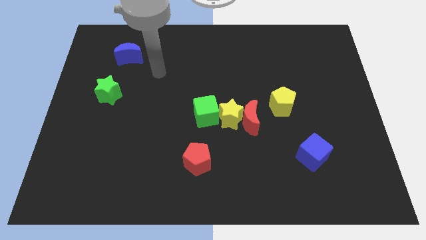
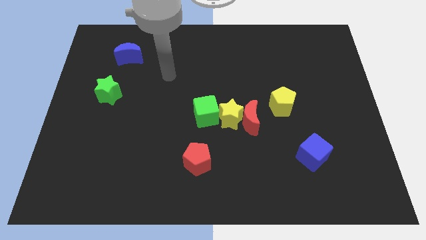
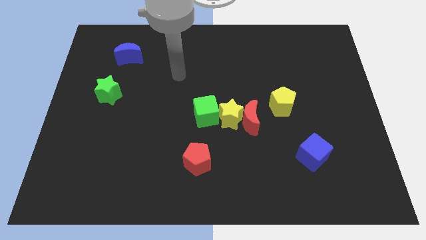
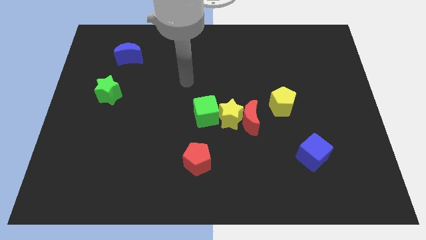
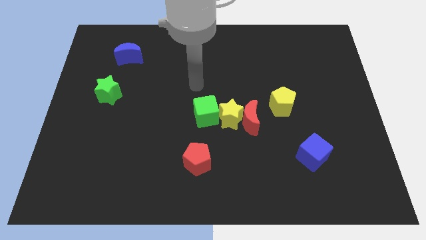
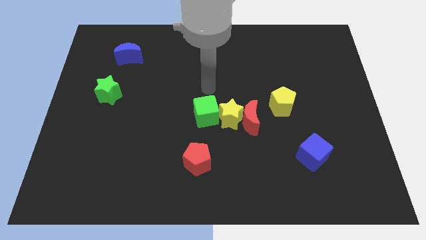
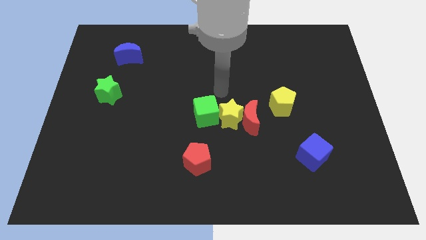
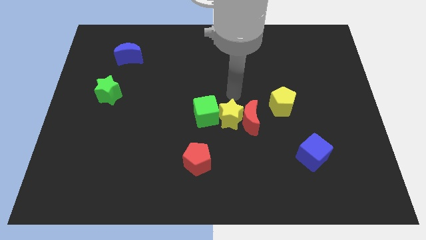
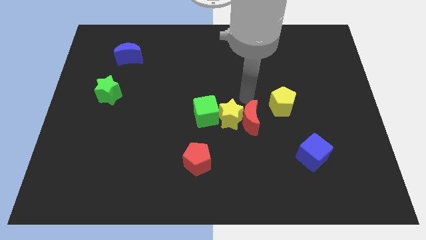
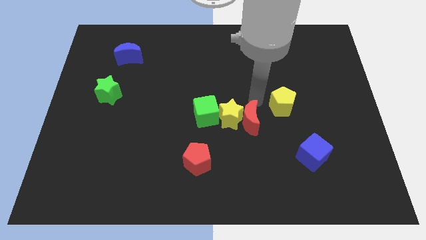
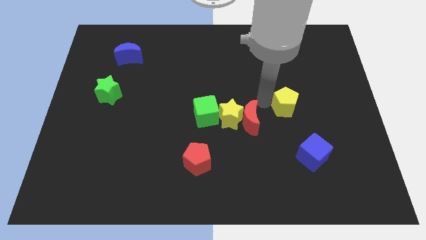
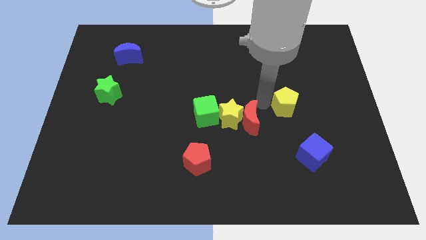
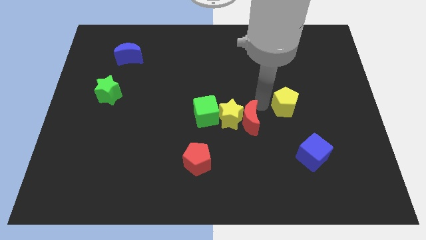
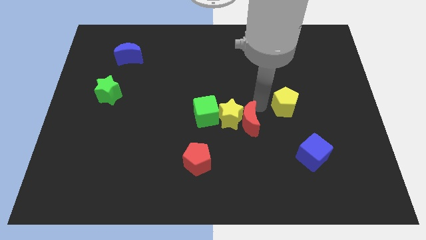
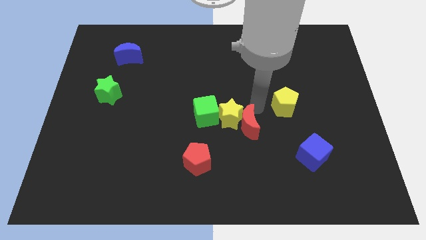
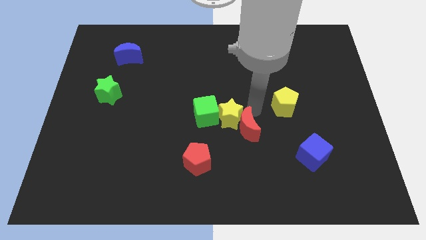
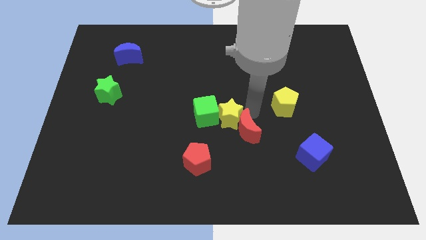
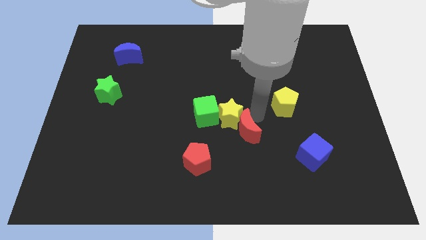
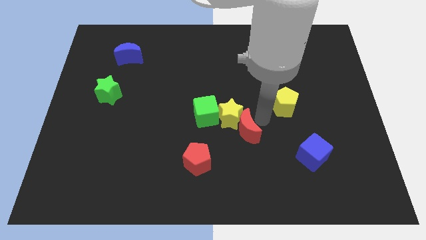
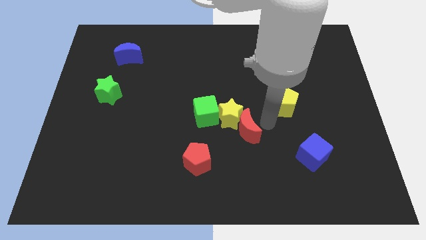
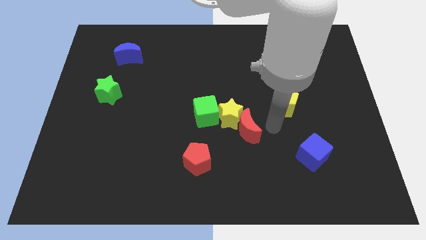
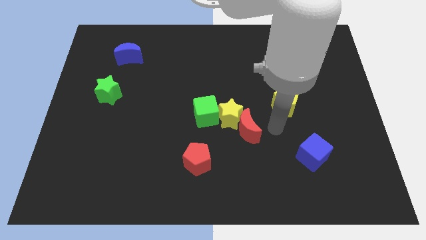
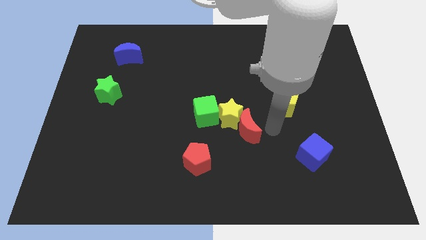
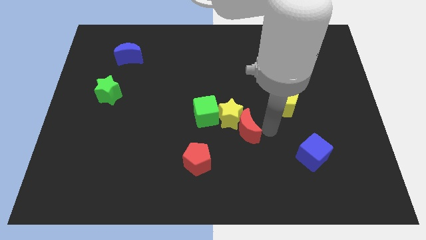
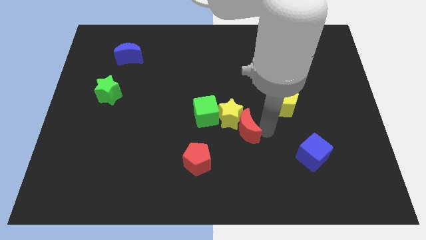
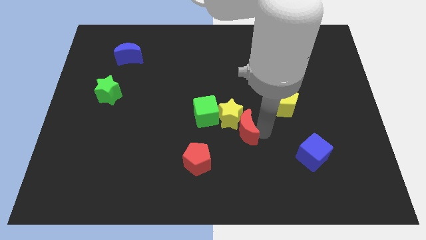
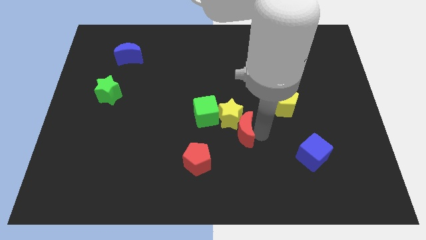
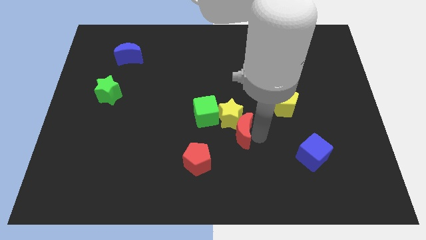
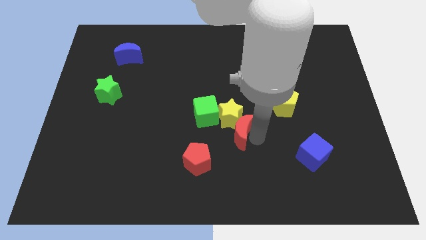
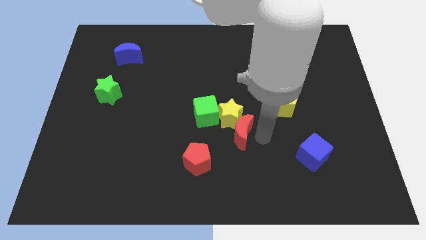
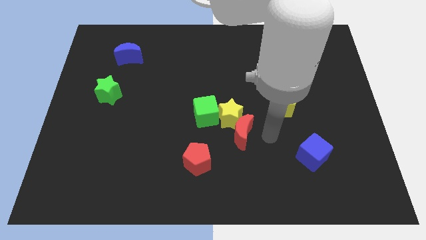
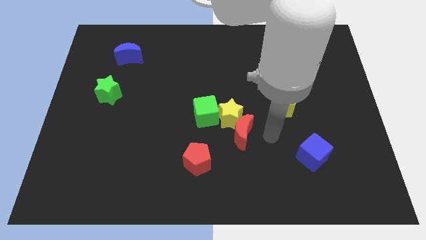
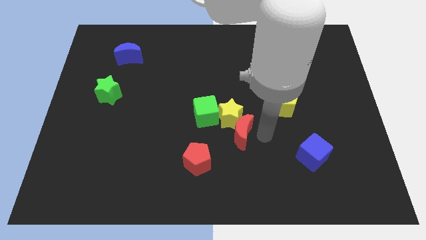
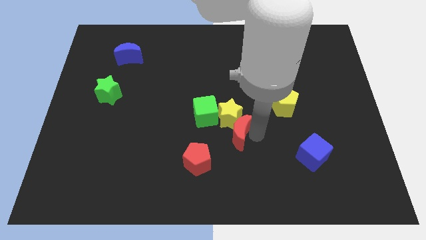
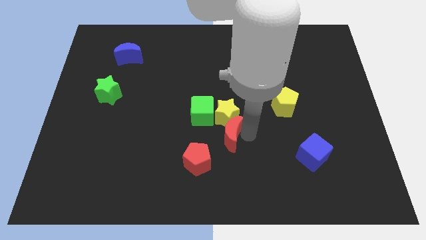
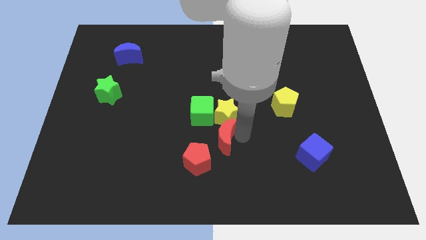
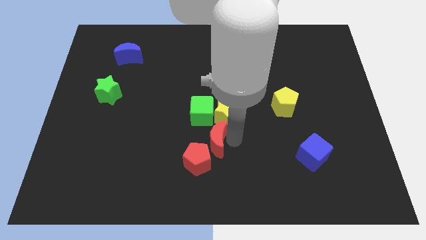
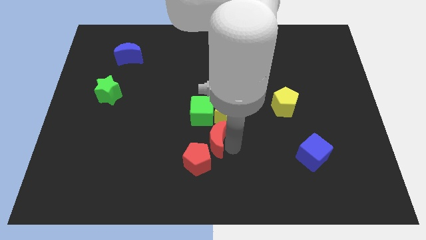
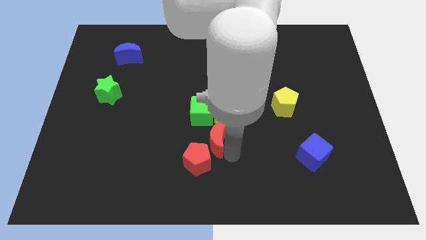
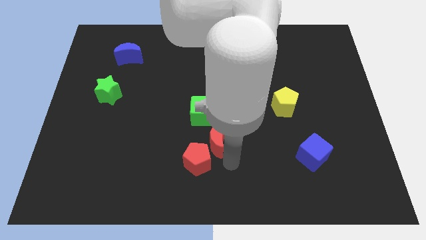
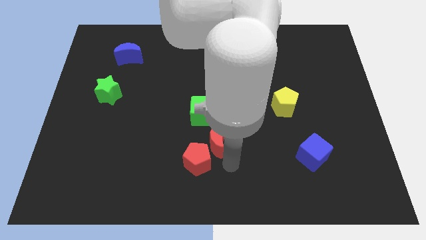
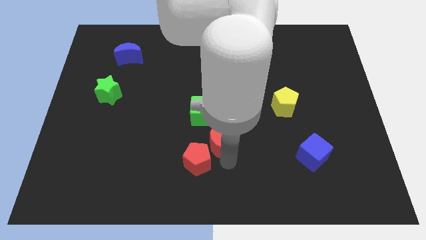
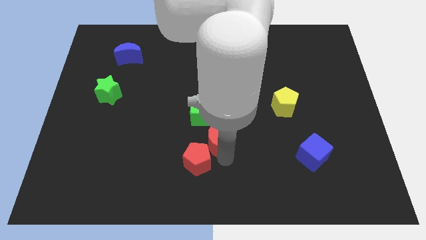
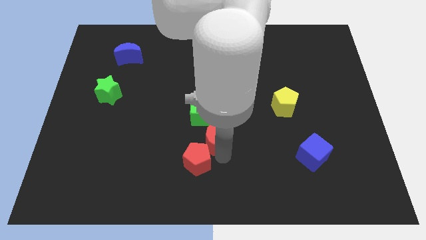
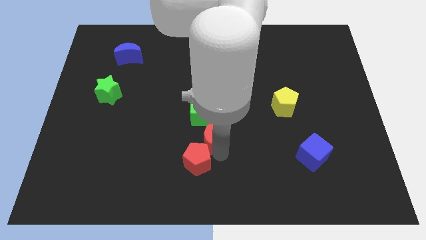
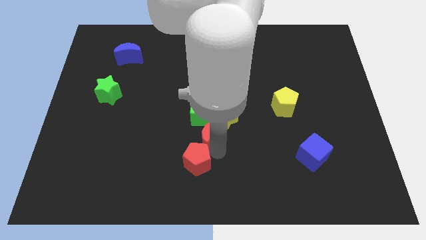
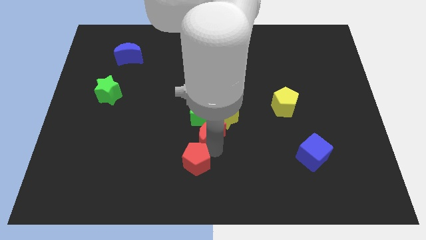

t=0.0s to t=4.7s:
put the red moon towards the green cube

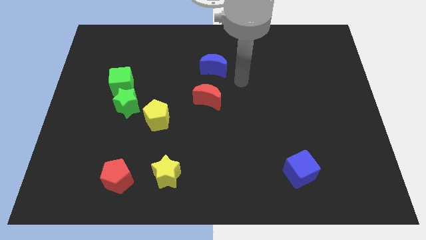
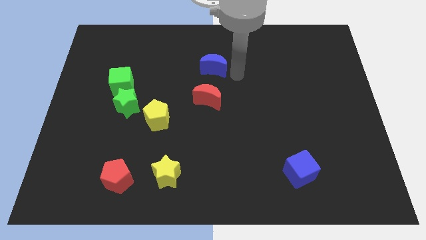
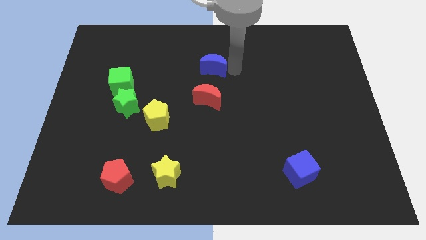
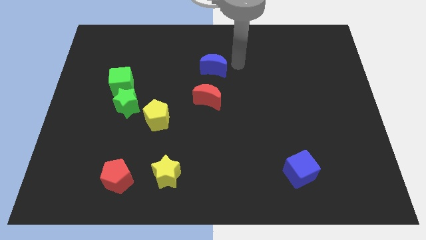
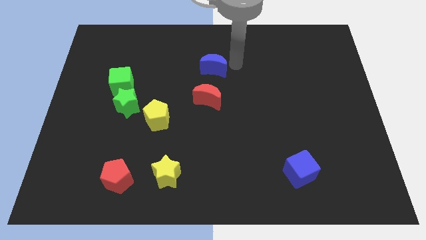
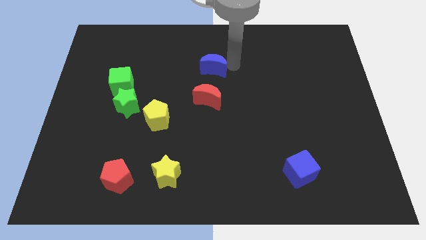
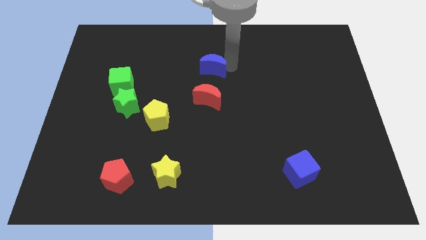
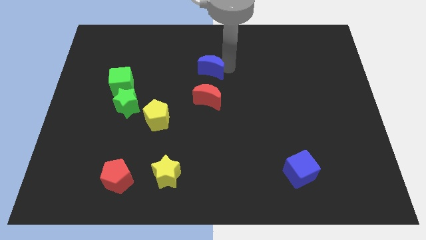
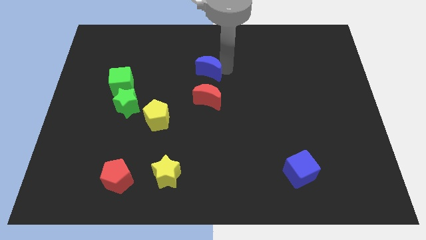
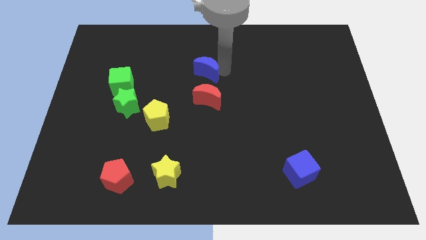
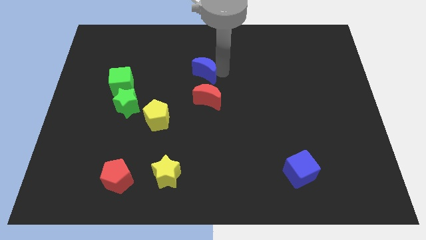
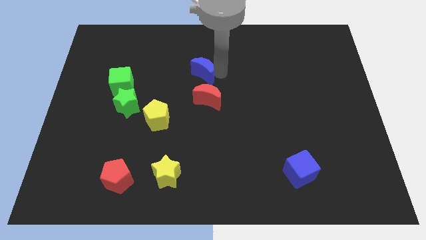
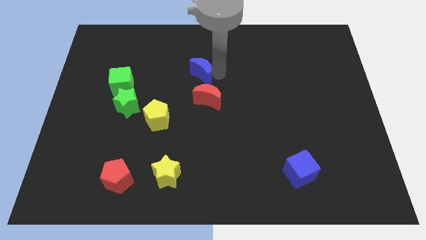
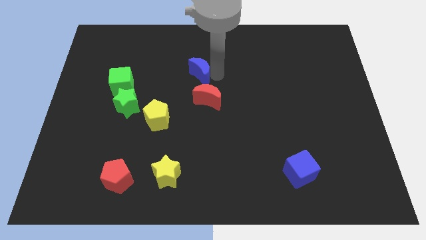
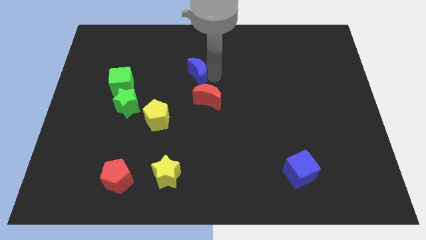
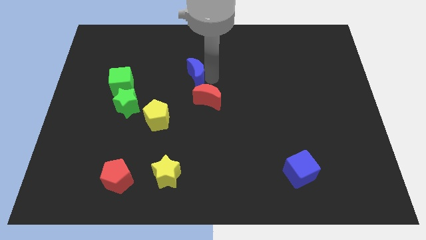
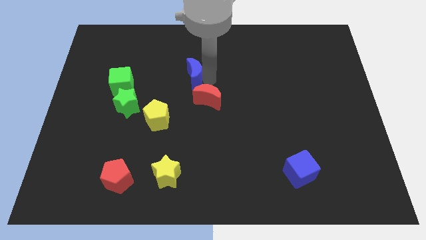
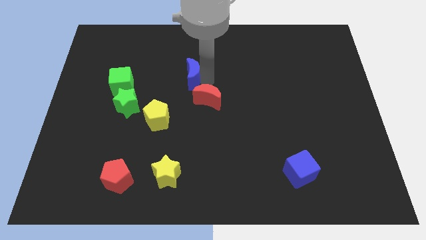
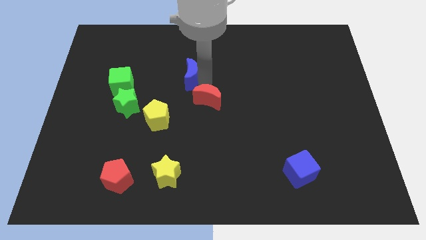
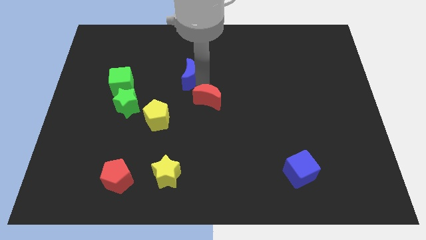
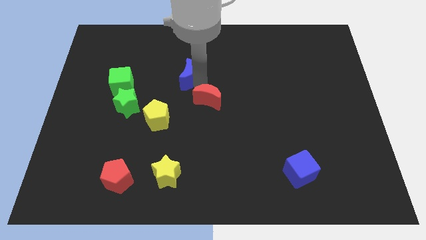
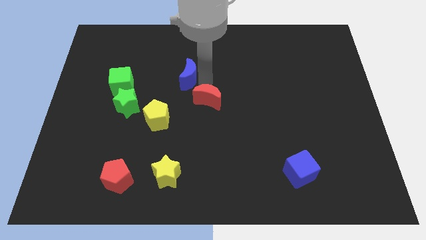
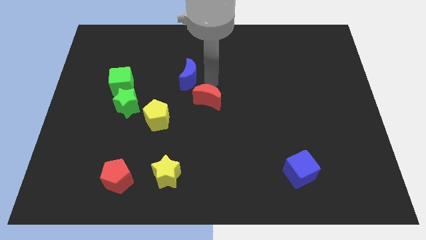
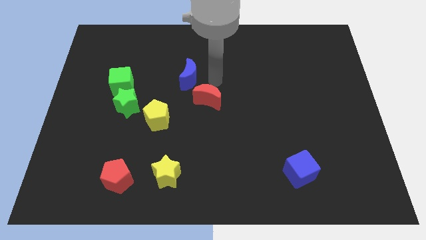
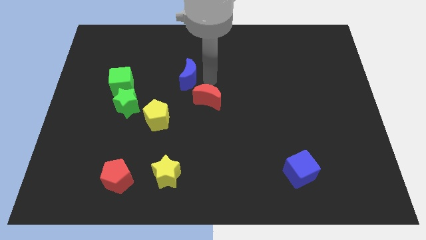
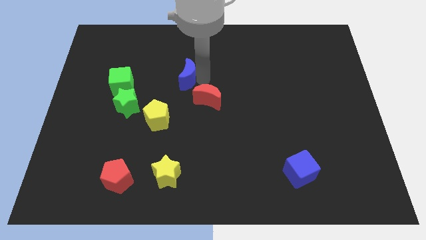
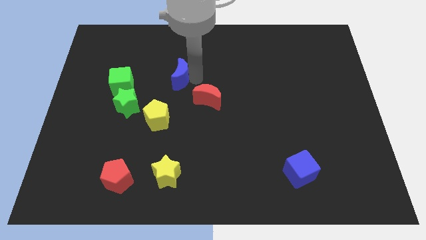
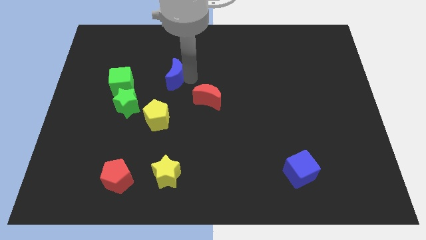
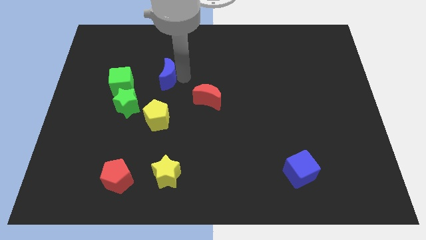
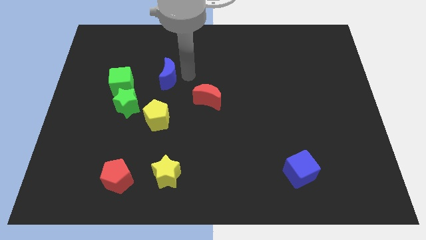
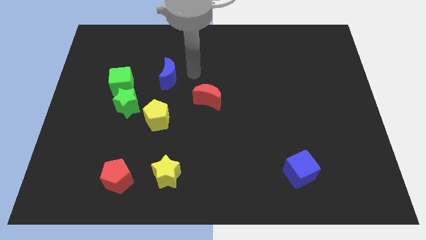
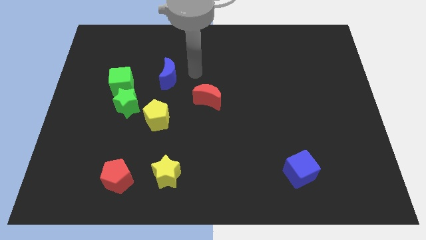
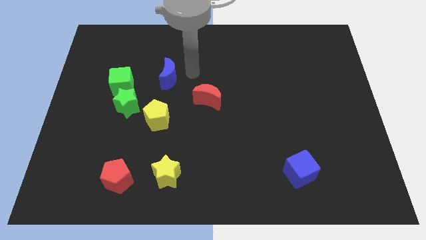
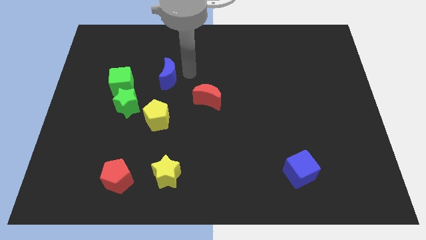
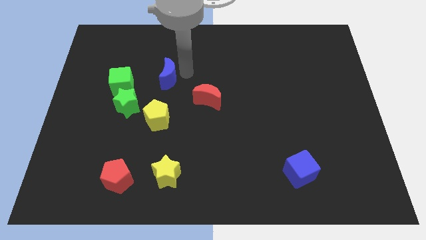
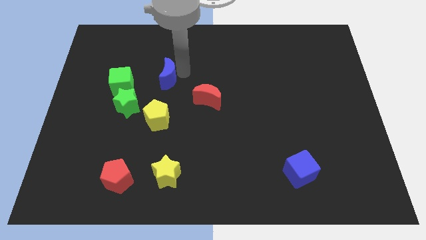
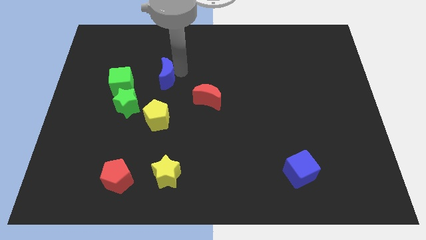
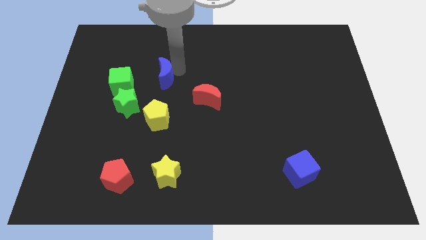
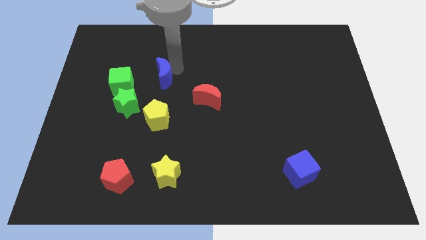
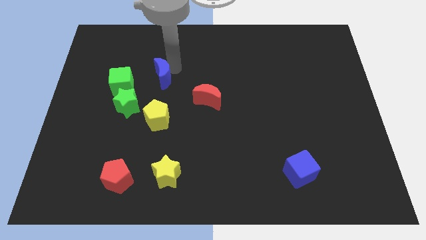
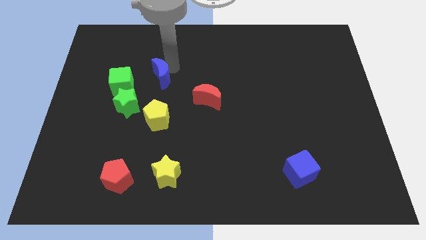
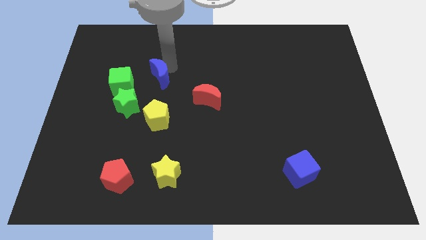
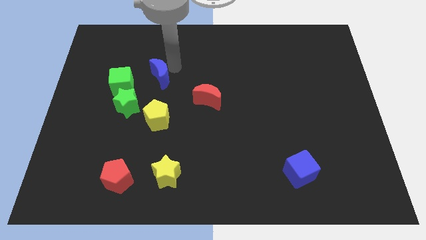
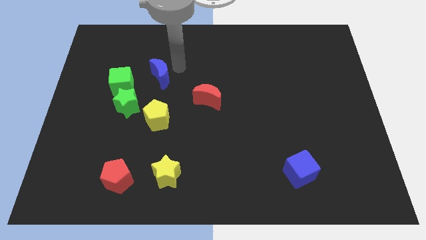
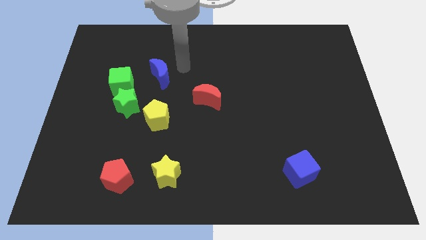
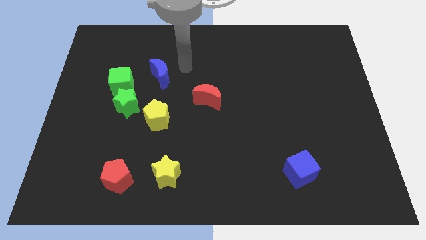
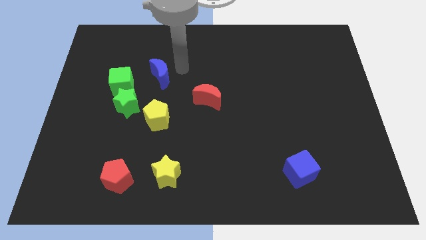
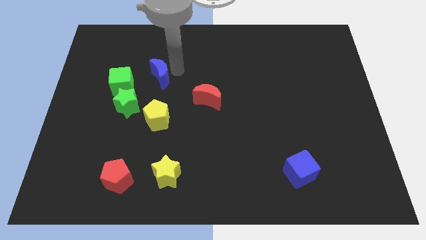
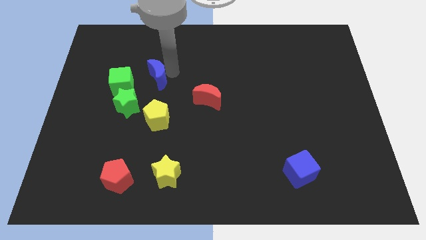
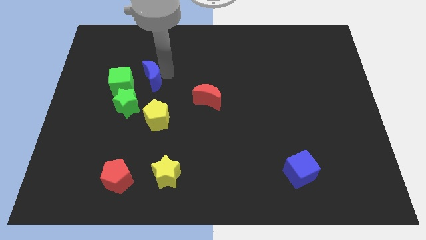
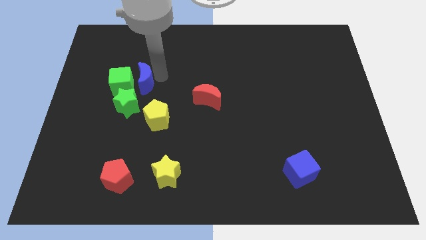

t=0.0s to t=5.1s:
move the blue moon towards the green cube
